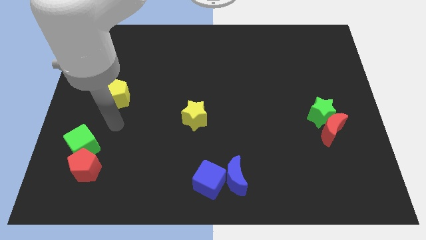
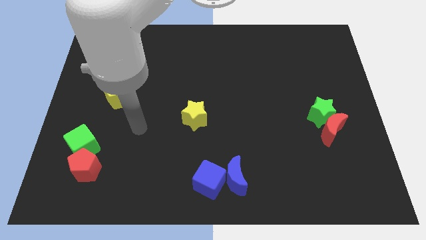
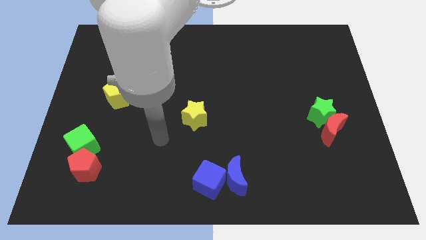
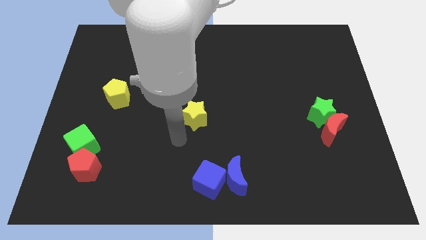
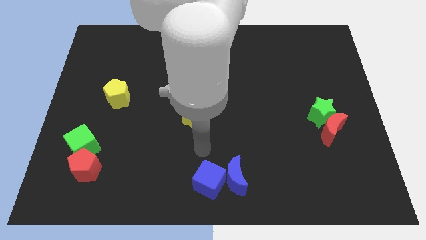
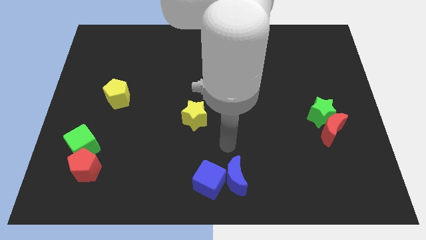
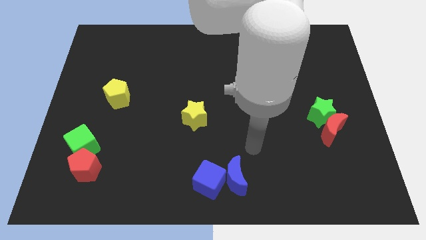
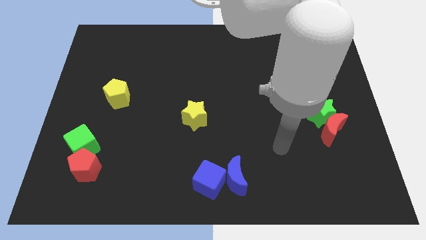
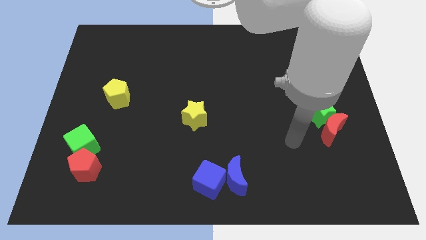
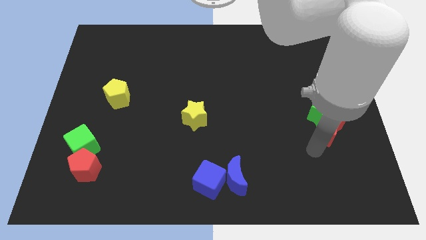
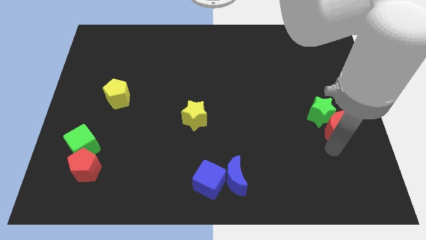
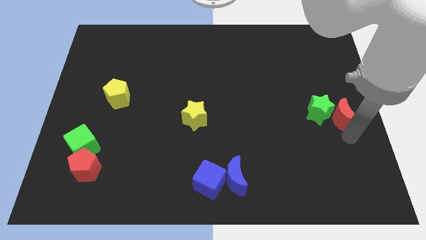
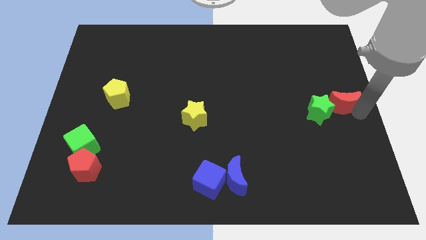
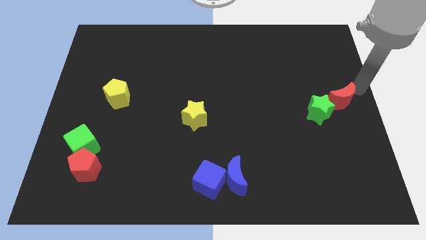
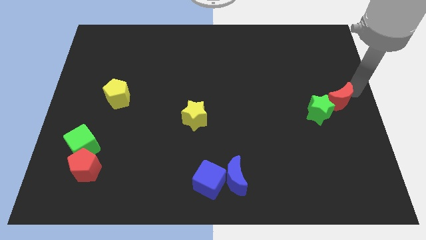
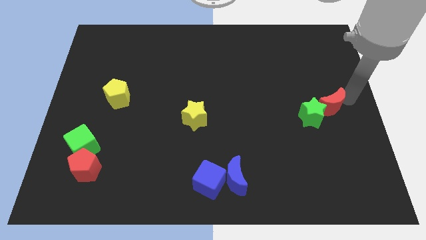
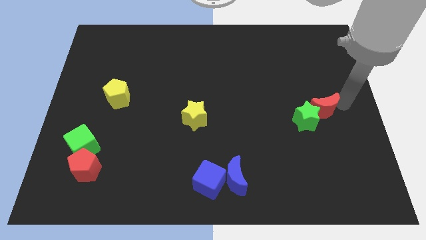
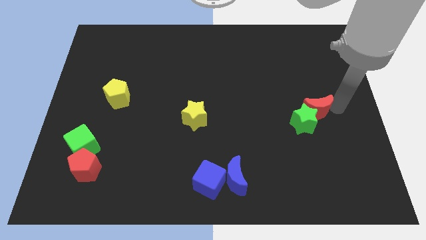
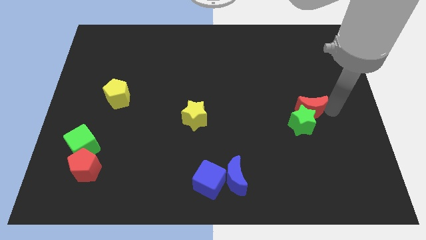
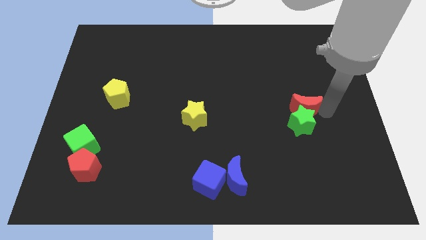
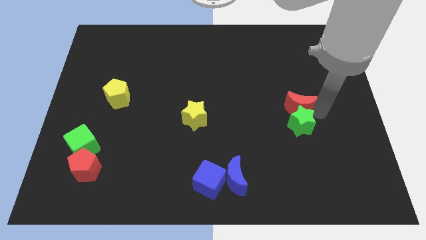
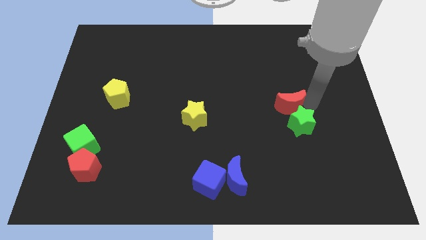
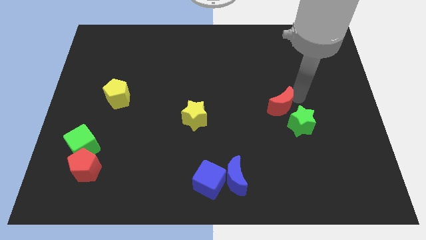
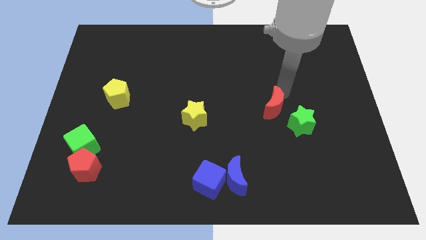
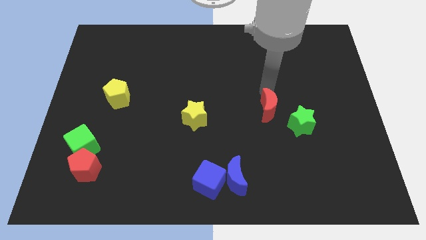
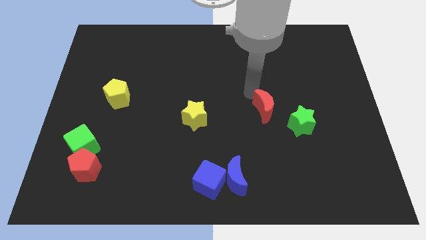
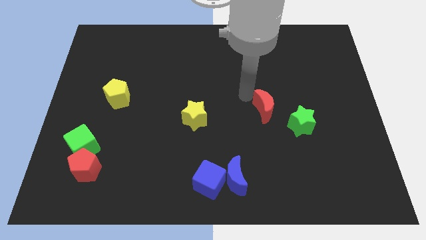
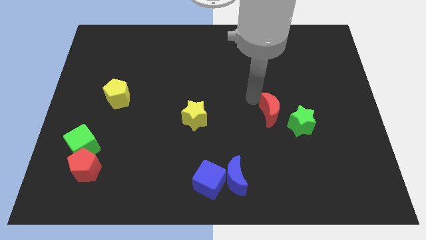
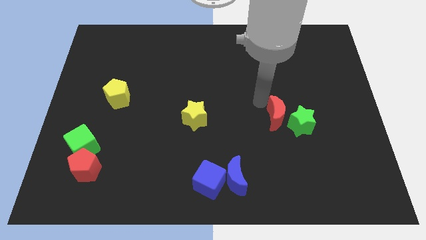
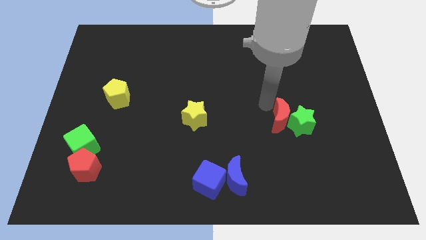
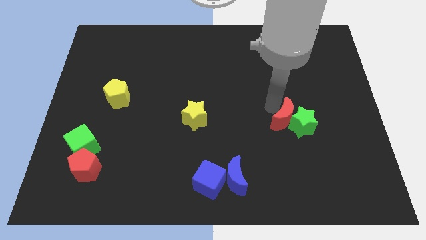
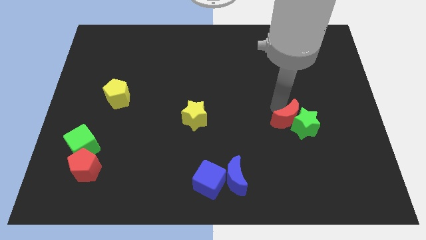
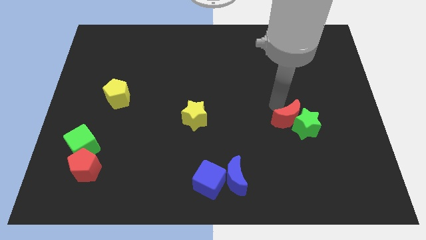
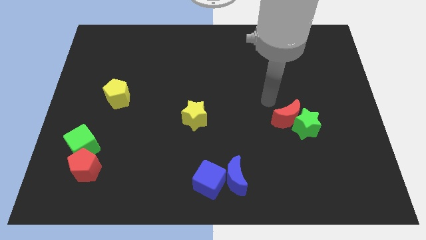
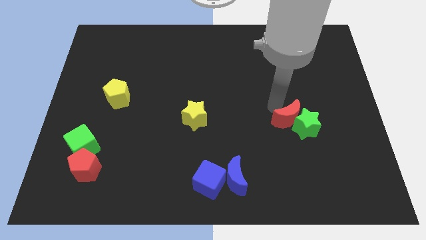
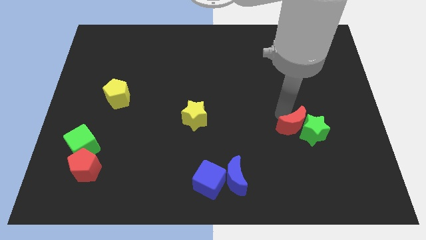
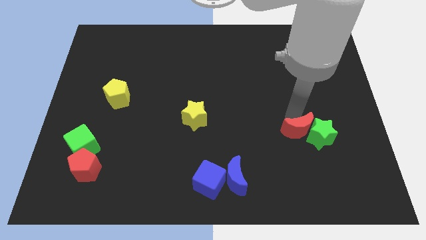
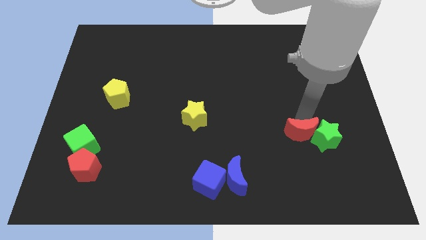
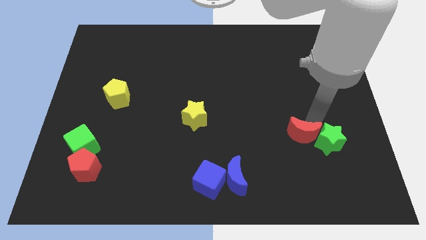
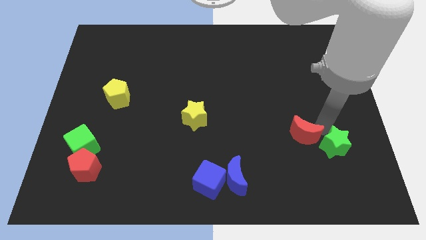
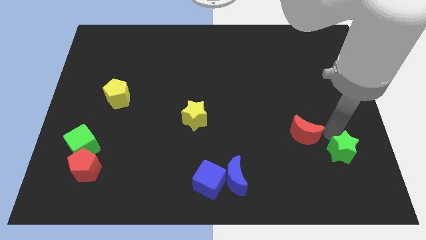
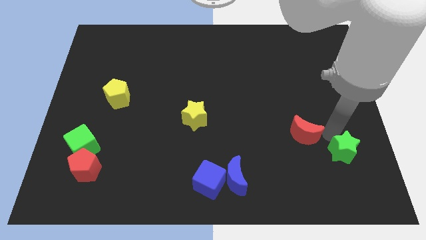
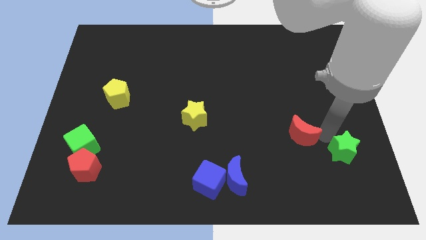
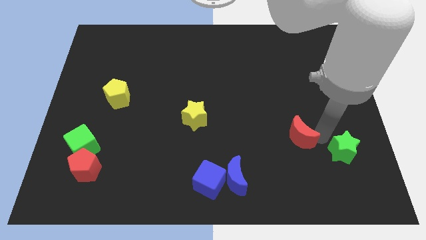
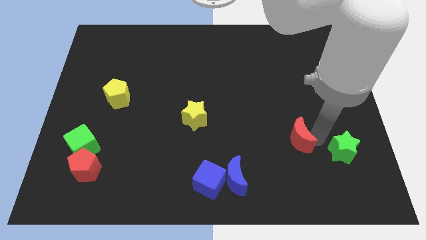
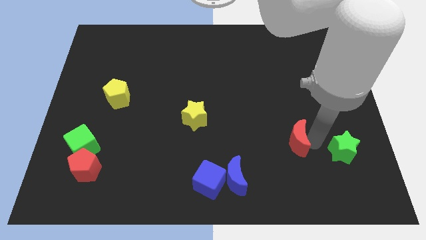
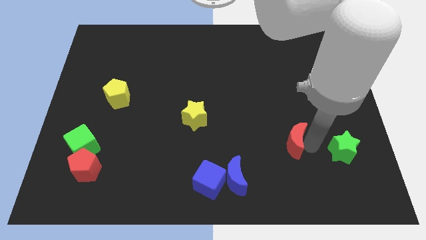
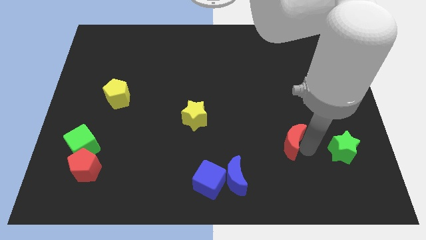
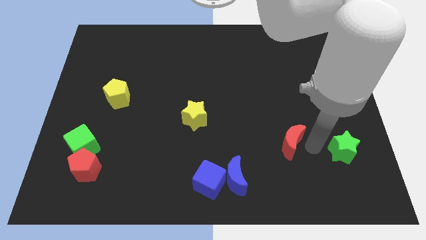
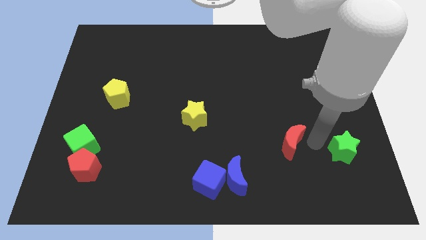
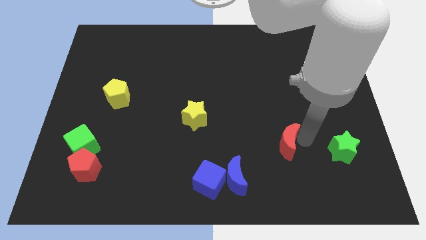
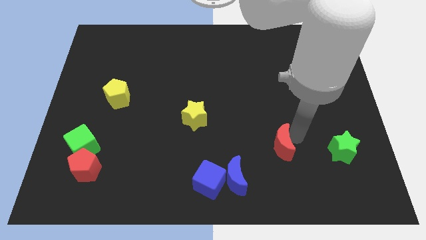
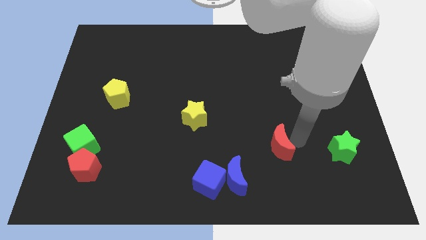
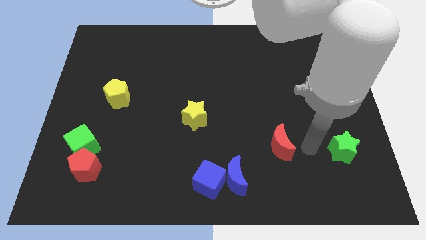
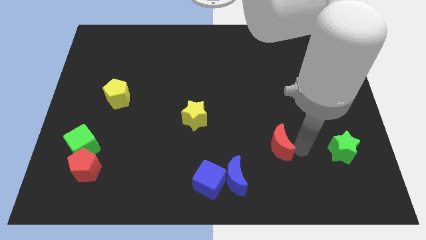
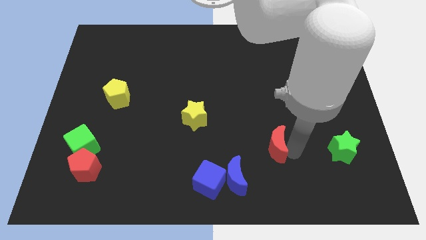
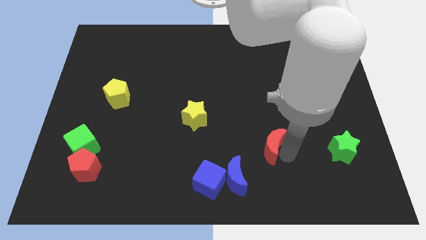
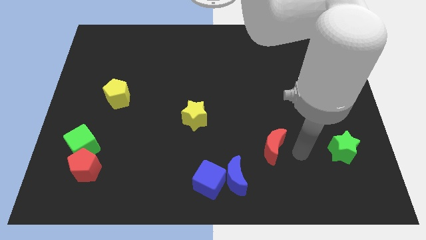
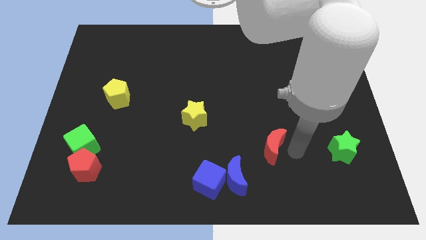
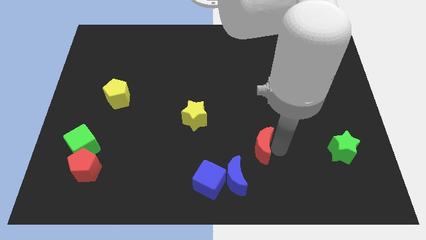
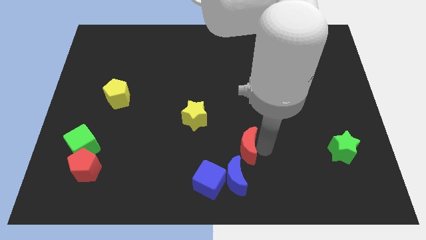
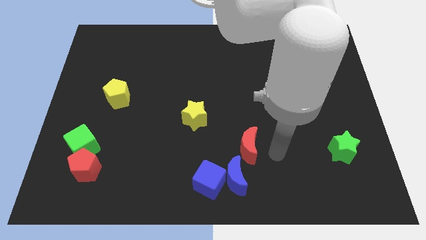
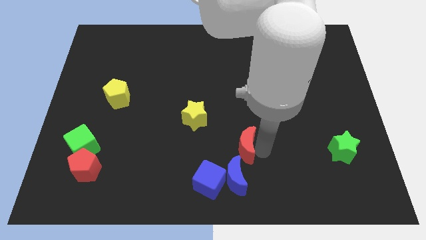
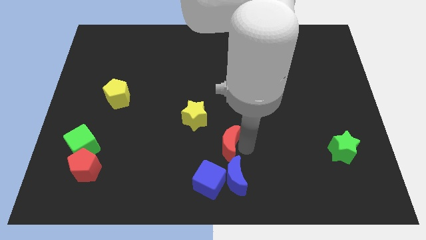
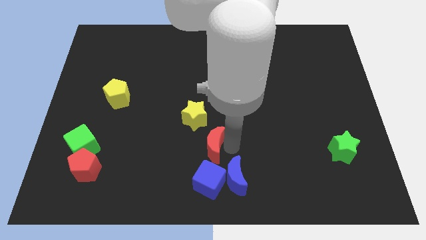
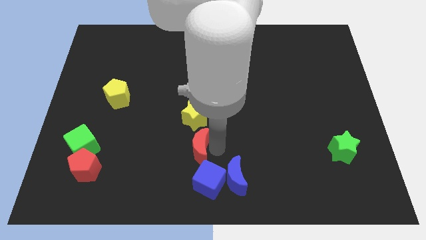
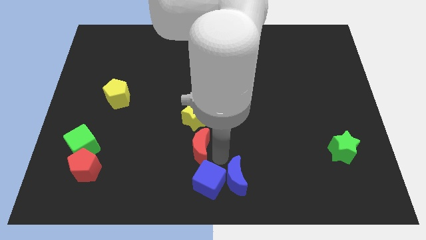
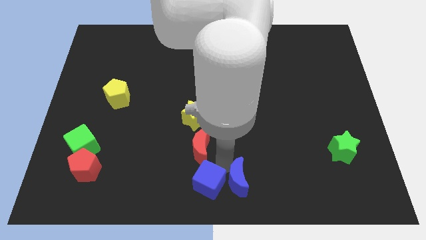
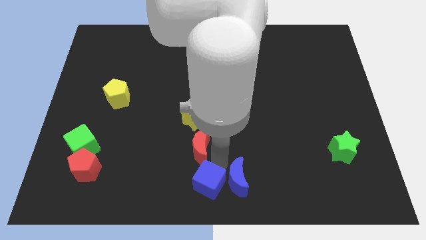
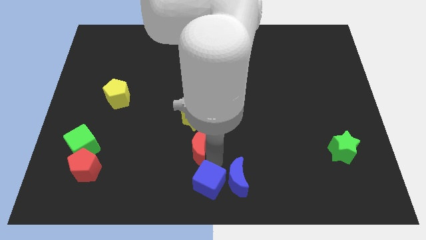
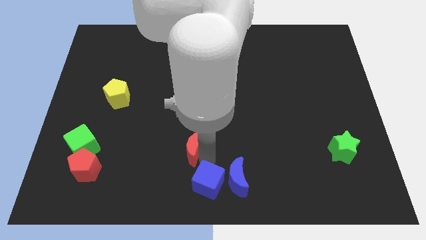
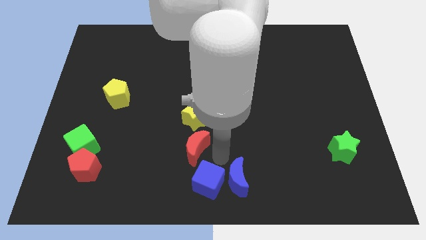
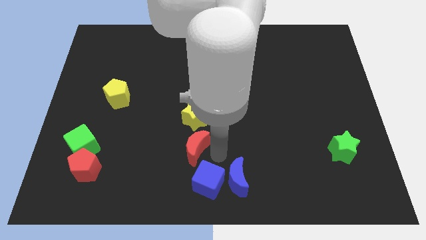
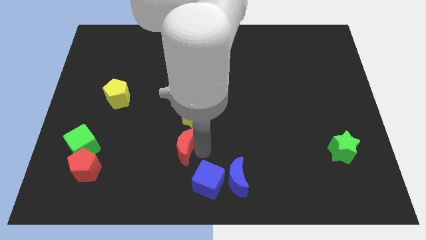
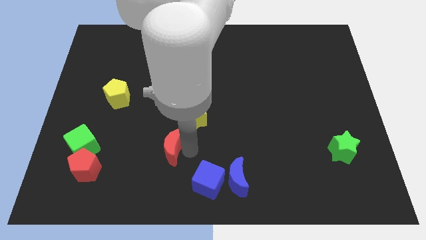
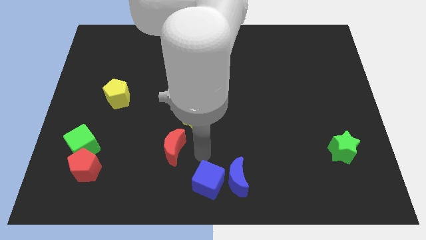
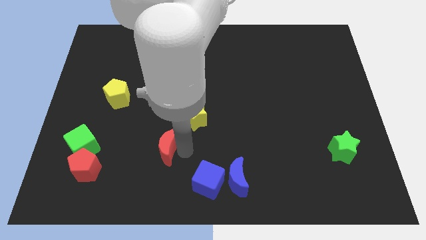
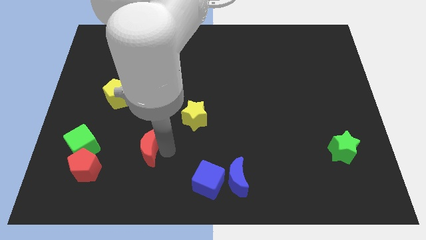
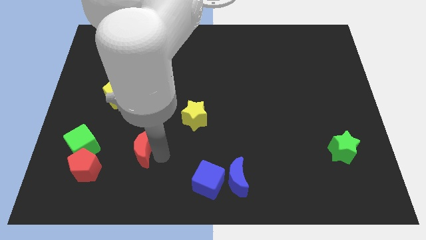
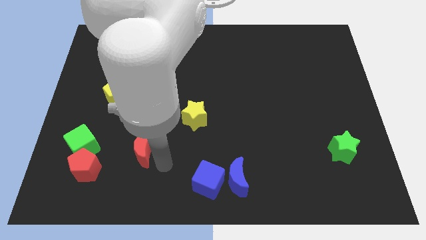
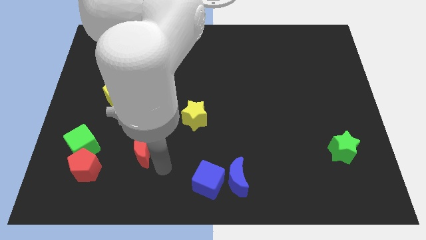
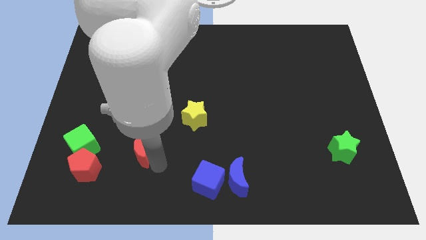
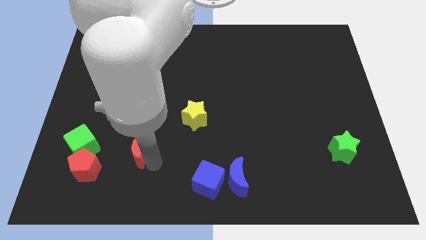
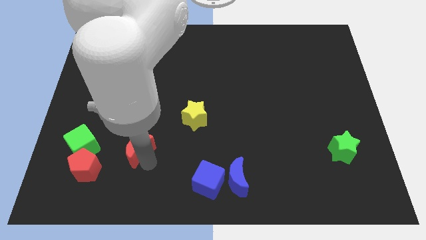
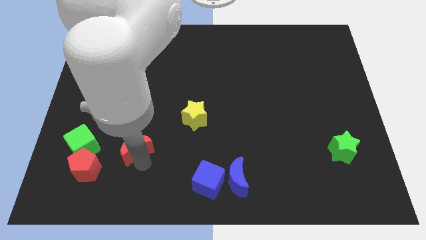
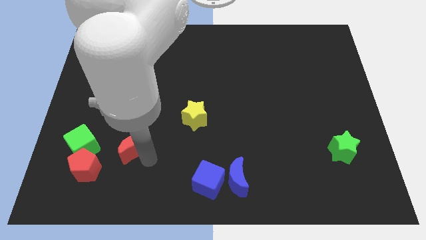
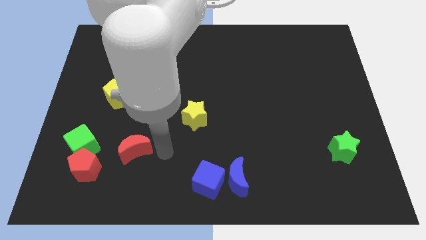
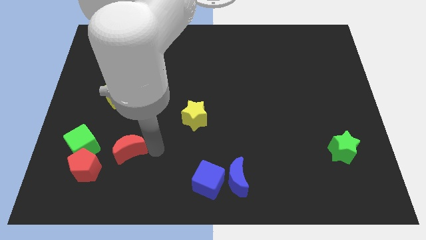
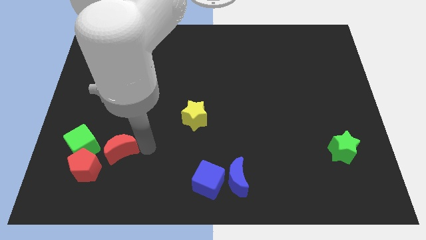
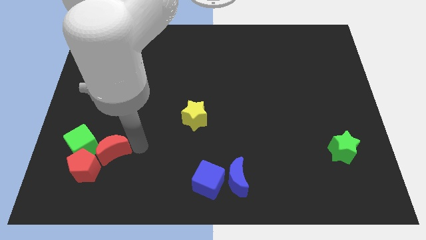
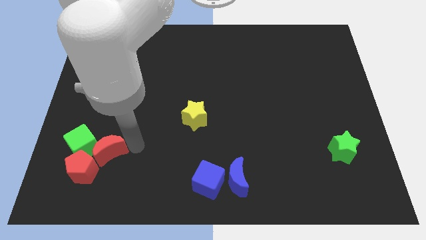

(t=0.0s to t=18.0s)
push the red moon to the green cube
